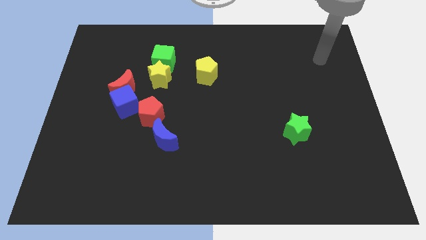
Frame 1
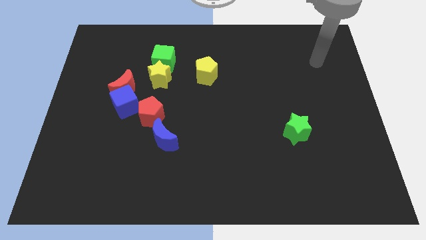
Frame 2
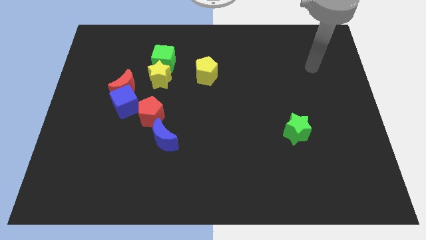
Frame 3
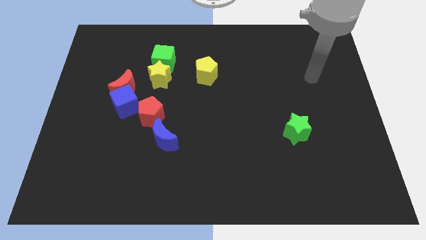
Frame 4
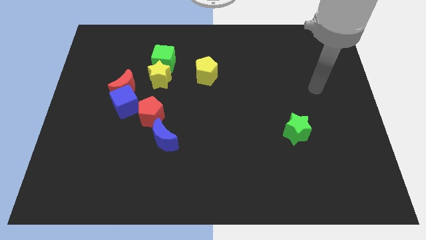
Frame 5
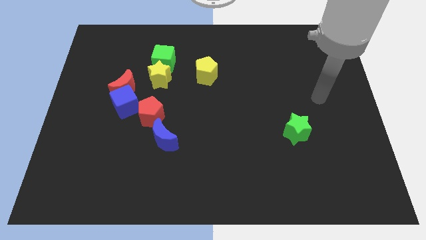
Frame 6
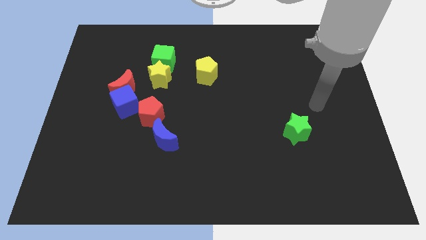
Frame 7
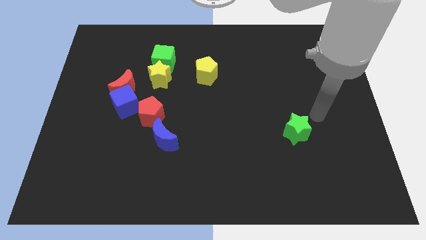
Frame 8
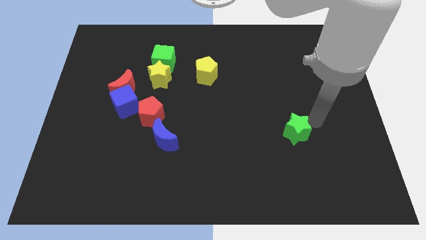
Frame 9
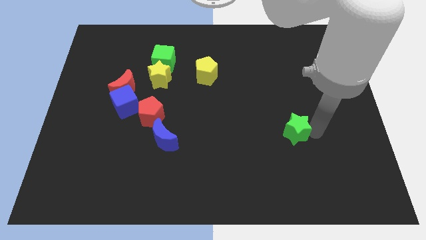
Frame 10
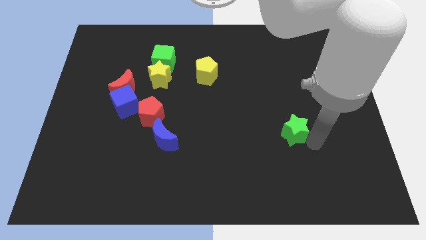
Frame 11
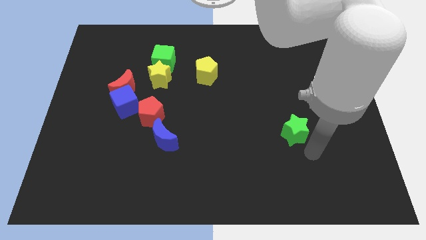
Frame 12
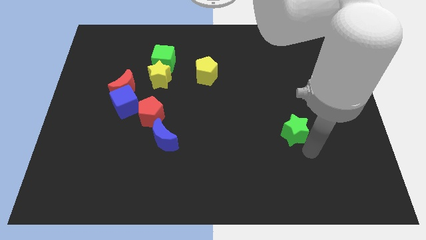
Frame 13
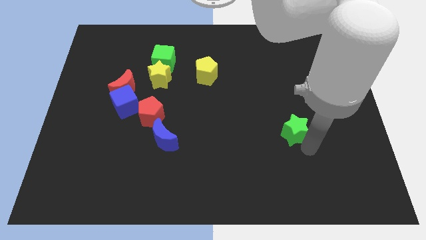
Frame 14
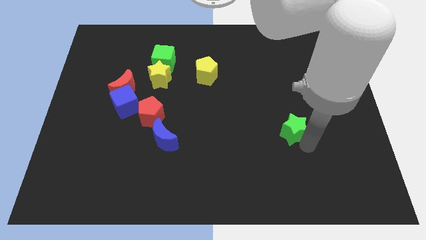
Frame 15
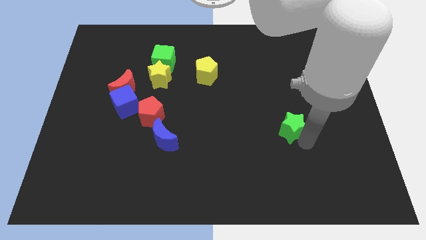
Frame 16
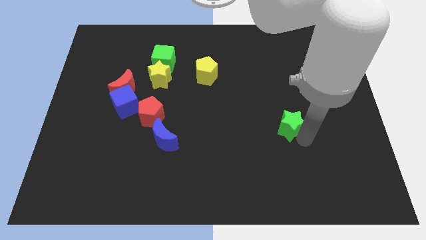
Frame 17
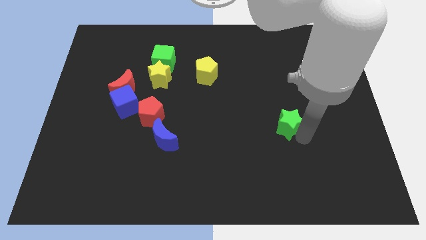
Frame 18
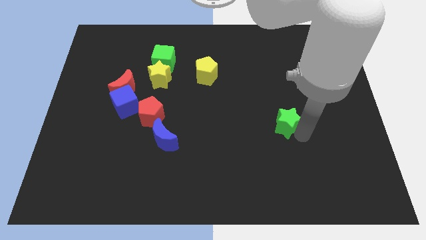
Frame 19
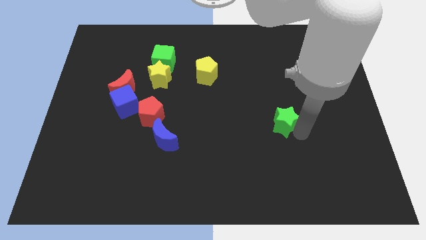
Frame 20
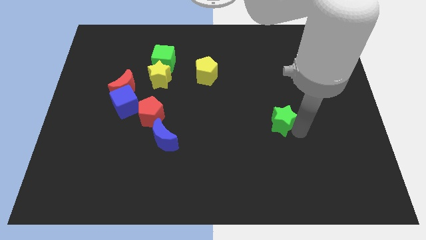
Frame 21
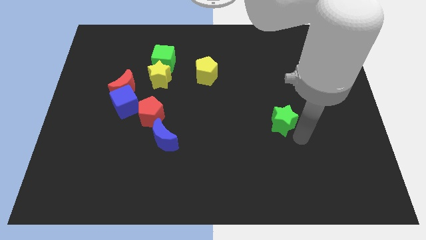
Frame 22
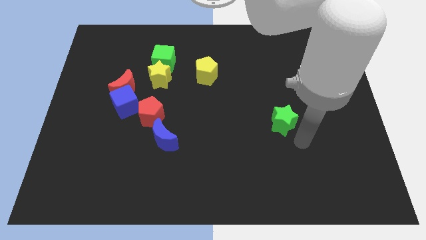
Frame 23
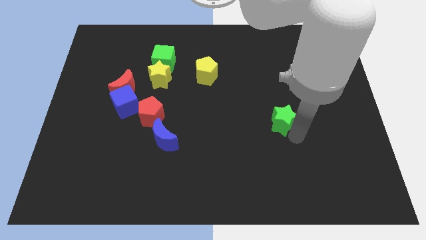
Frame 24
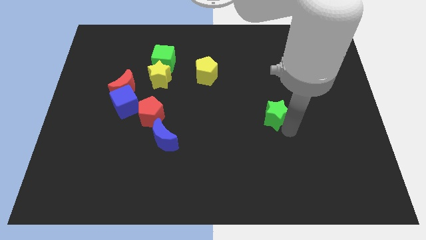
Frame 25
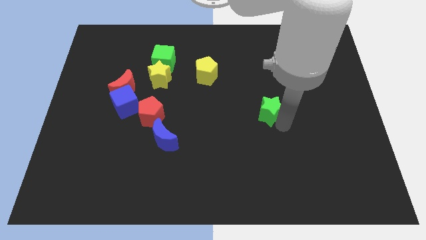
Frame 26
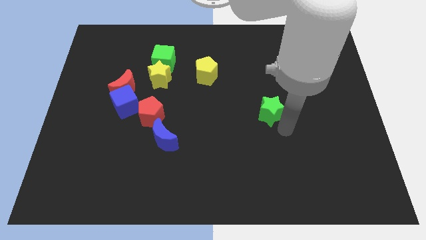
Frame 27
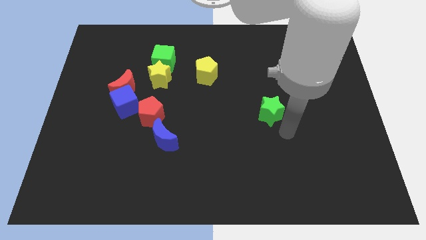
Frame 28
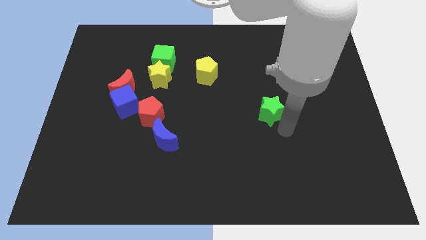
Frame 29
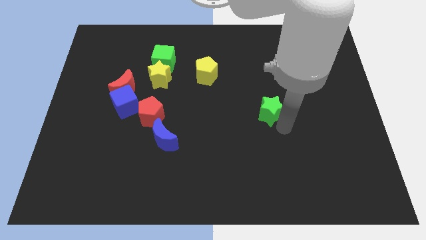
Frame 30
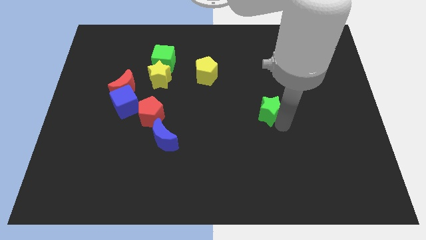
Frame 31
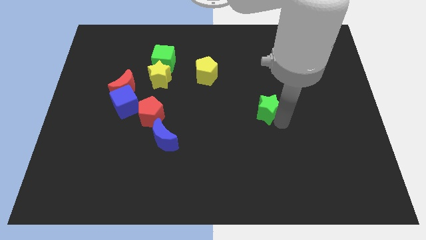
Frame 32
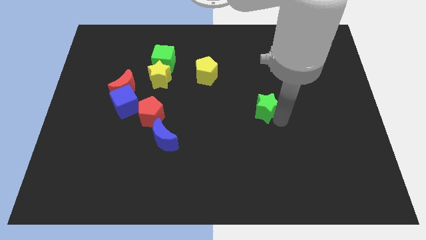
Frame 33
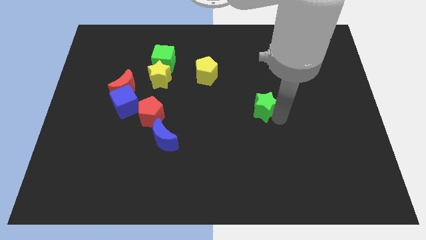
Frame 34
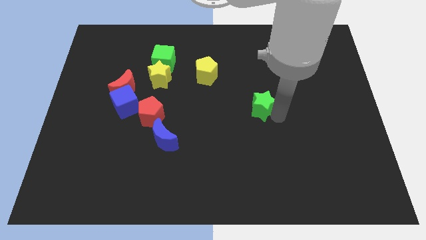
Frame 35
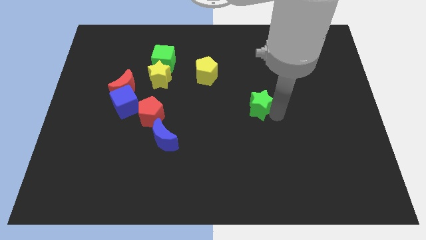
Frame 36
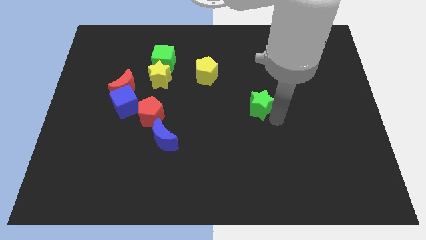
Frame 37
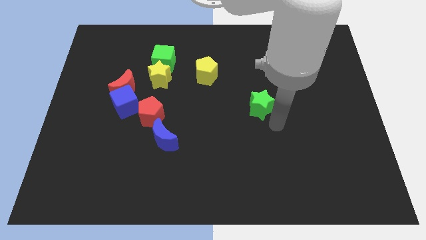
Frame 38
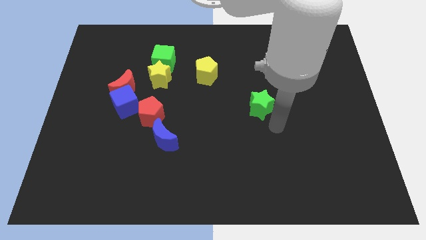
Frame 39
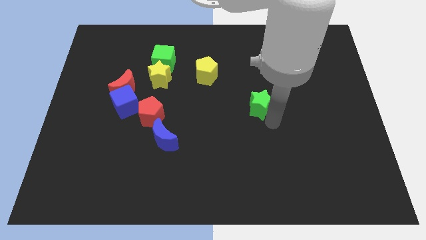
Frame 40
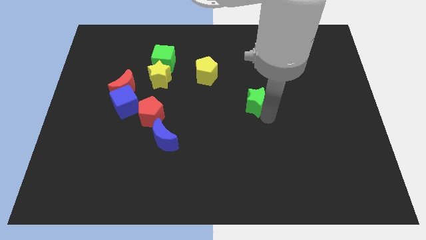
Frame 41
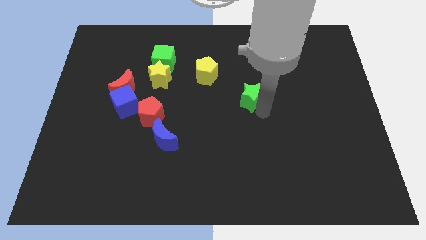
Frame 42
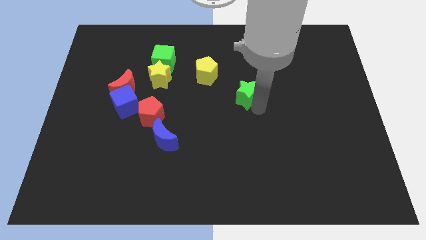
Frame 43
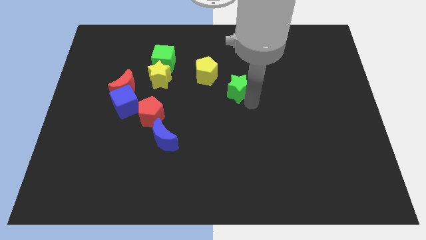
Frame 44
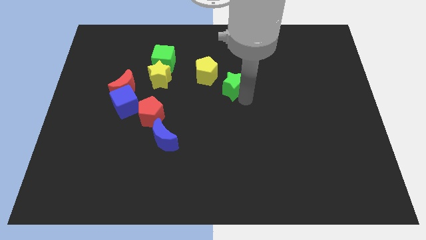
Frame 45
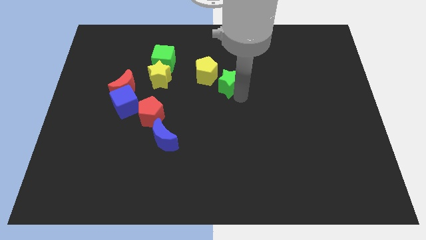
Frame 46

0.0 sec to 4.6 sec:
move the green star upwards and to the left

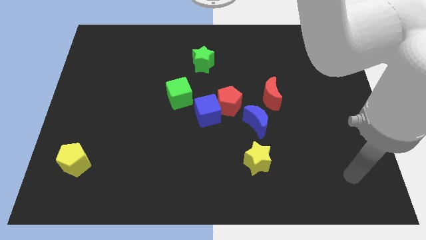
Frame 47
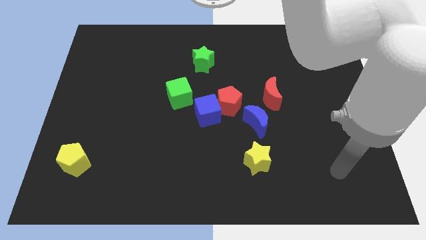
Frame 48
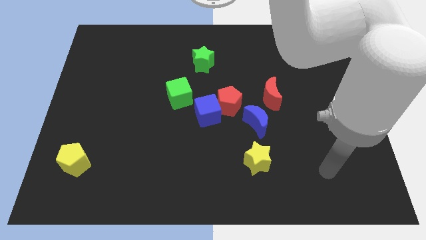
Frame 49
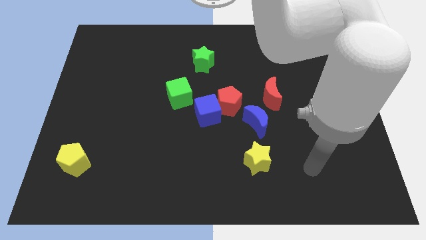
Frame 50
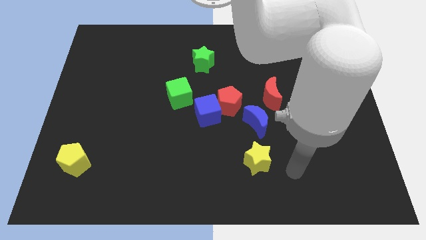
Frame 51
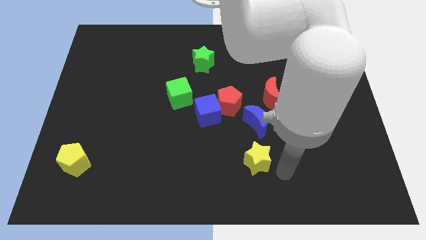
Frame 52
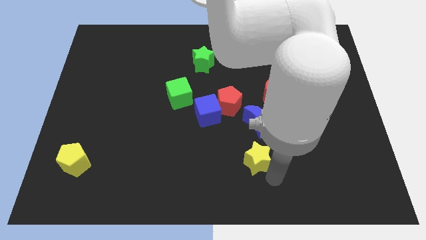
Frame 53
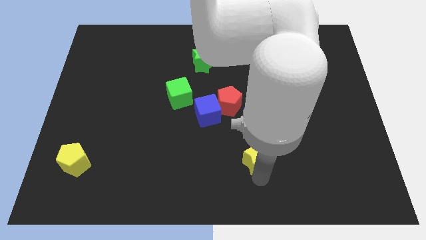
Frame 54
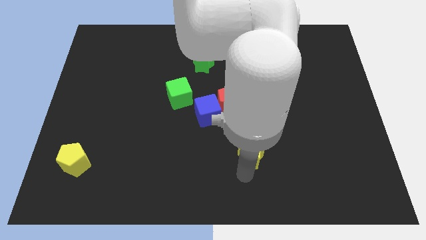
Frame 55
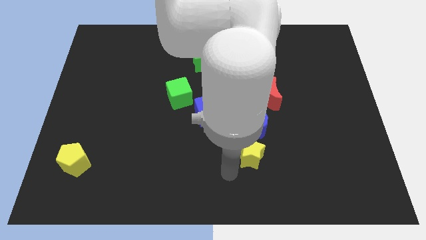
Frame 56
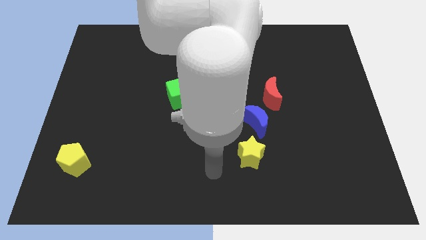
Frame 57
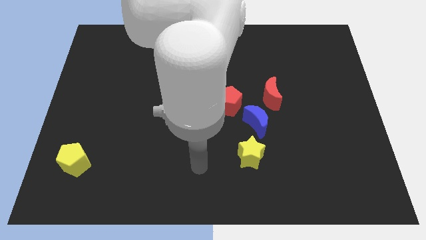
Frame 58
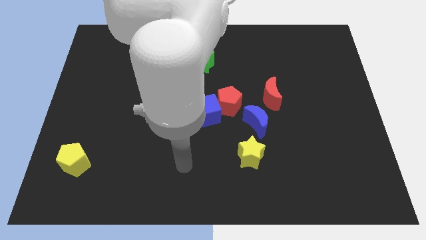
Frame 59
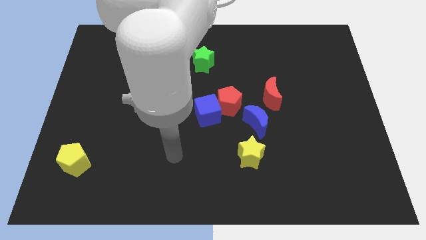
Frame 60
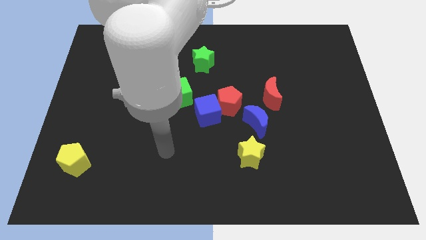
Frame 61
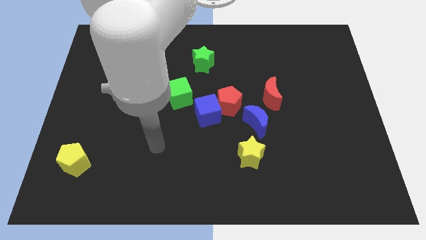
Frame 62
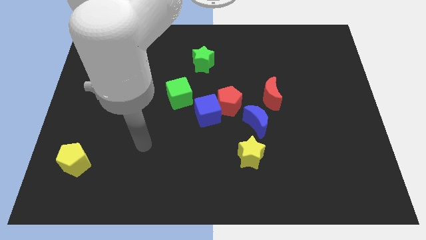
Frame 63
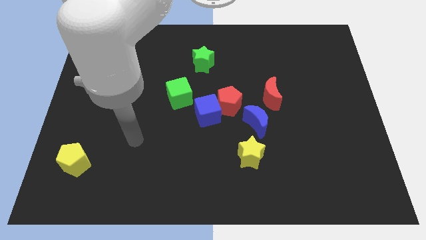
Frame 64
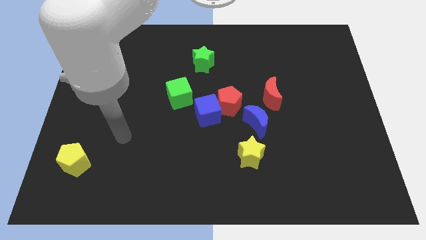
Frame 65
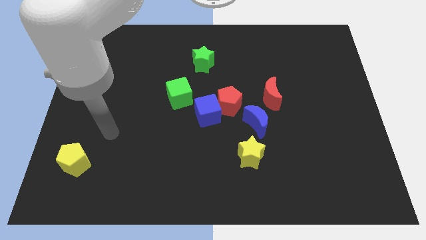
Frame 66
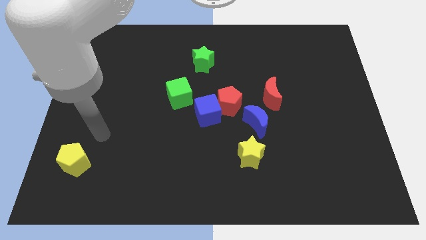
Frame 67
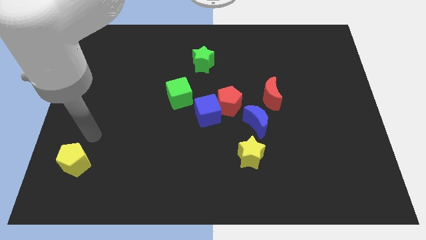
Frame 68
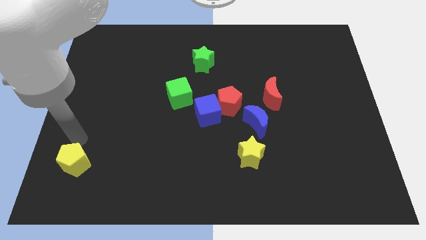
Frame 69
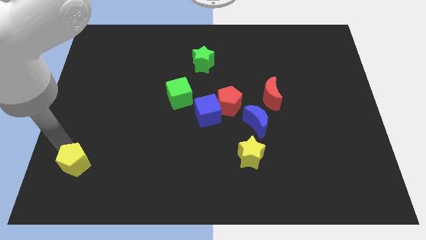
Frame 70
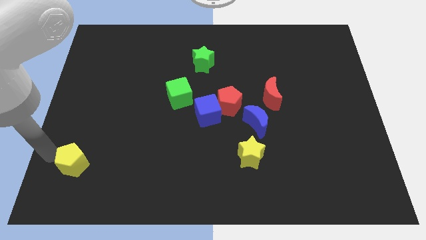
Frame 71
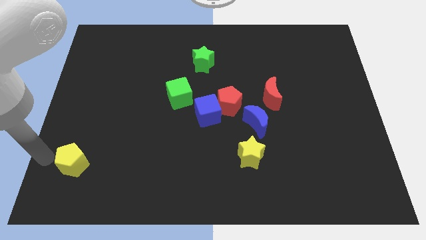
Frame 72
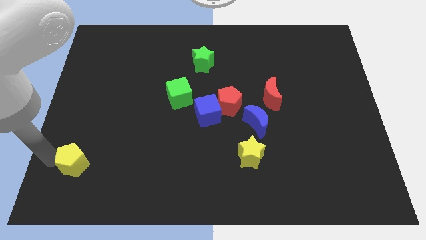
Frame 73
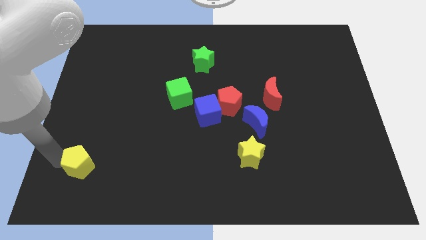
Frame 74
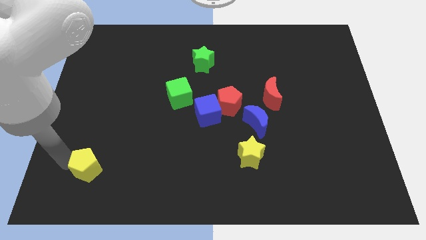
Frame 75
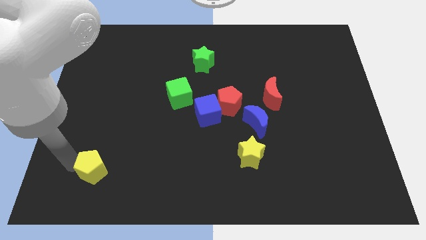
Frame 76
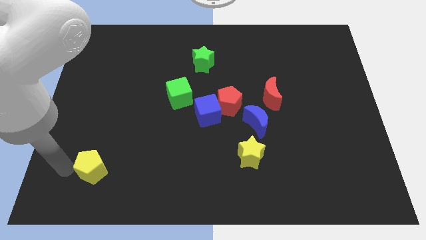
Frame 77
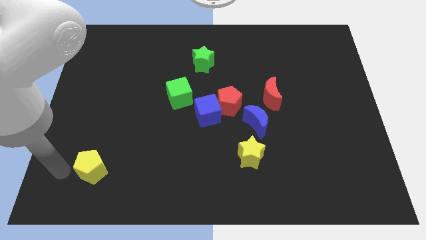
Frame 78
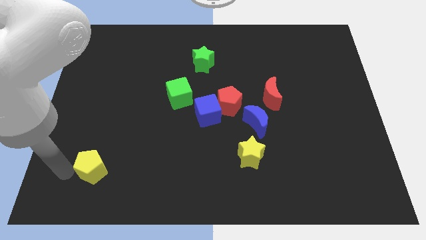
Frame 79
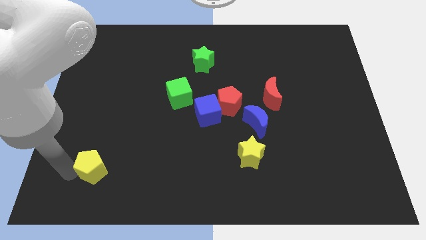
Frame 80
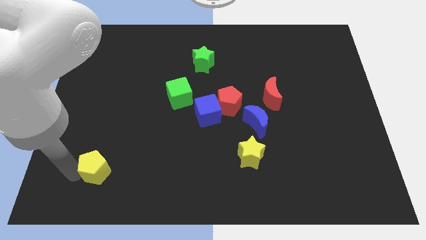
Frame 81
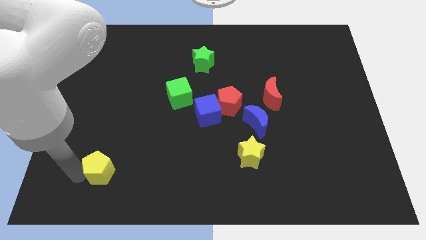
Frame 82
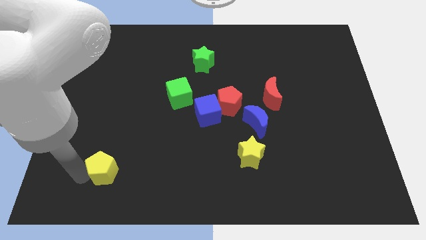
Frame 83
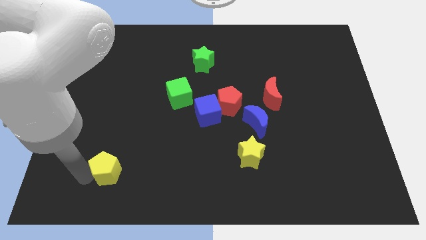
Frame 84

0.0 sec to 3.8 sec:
move the yellow pentagon somewhat right
